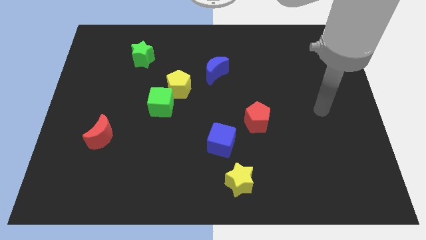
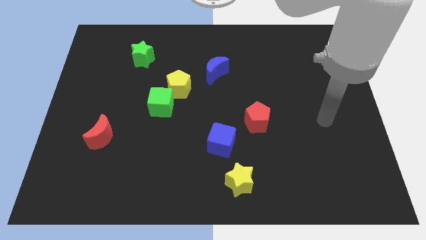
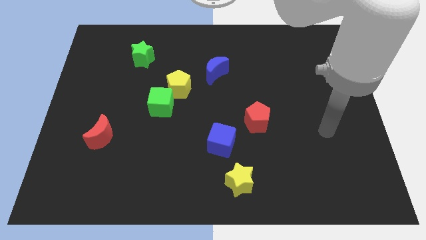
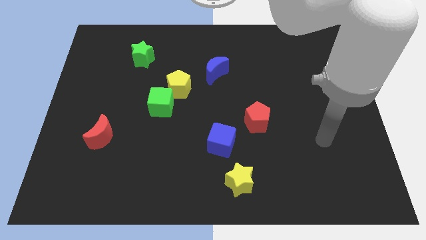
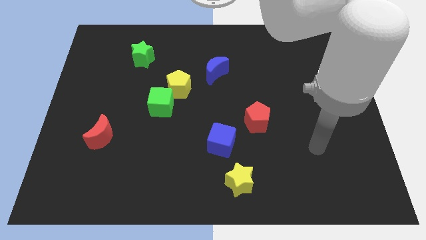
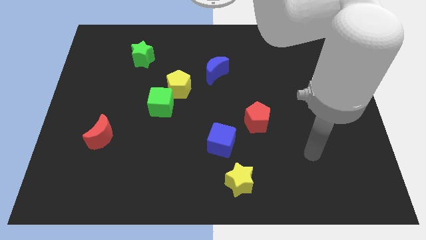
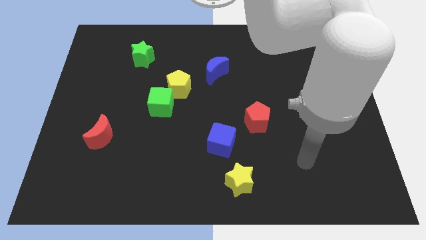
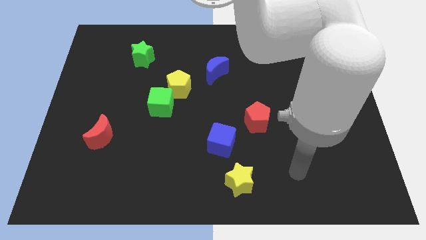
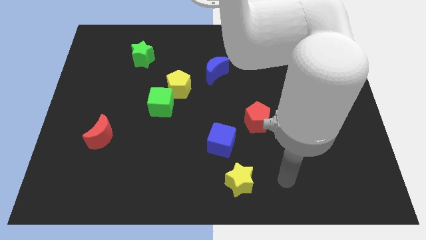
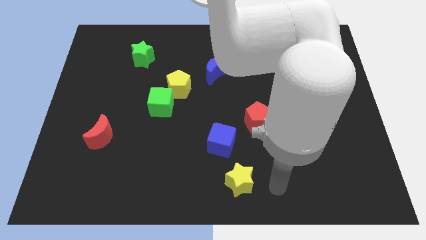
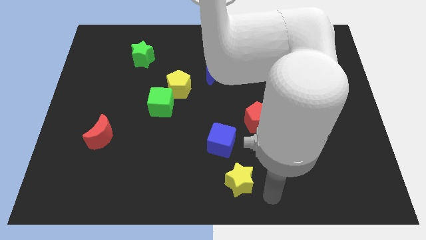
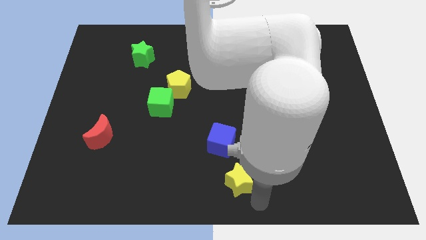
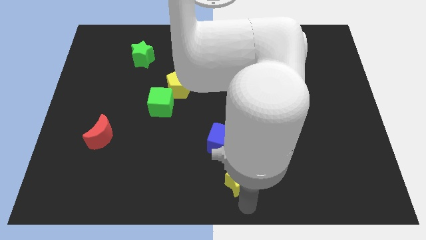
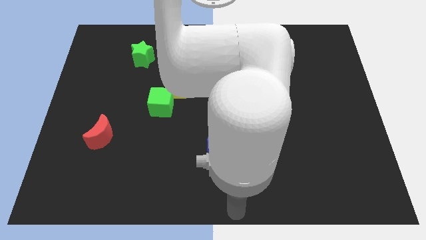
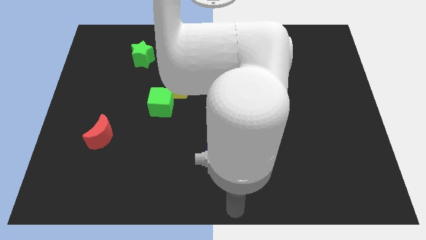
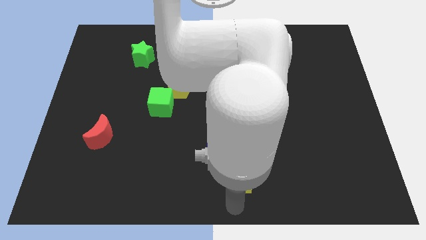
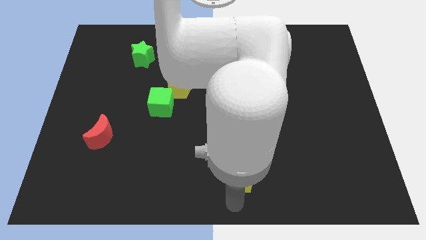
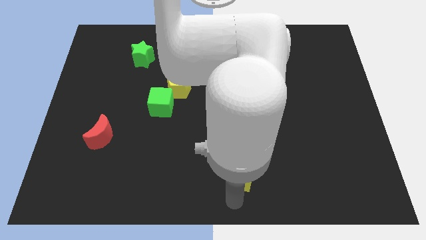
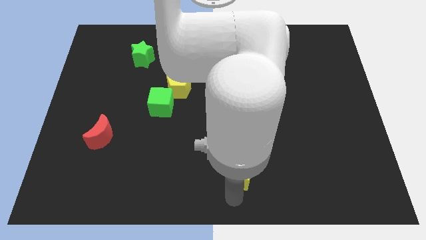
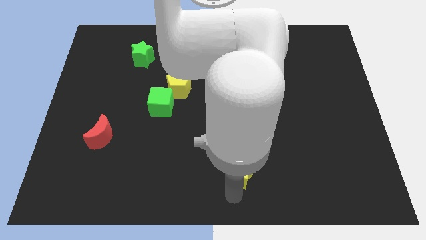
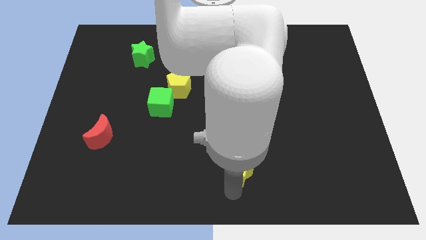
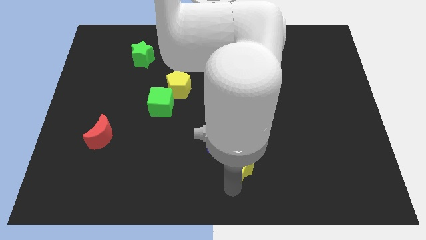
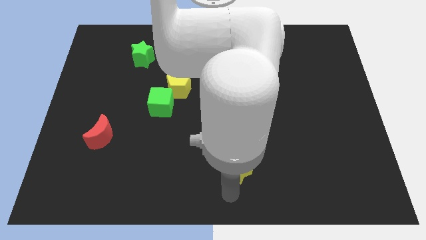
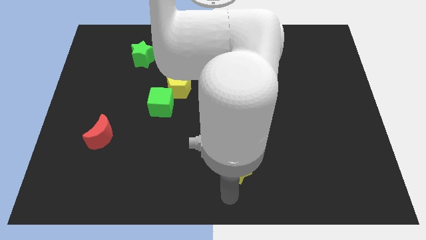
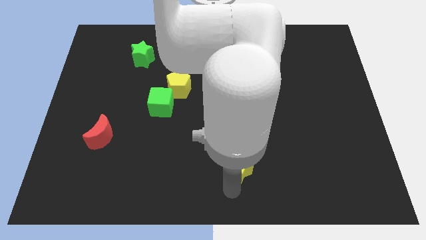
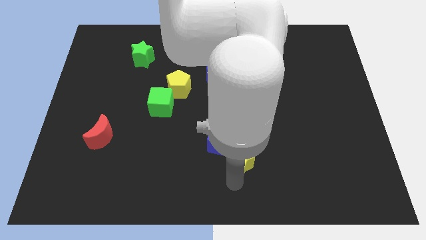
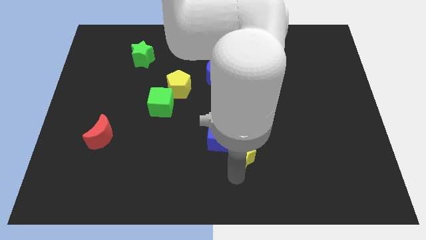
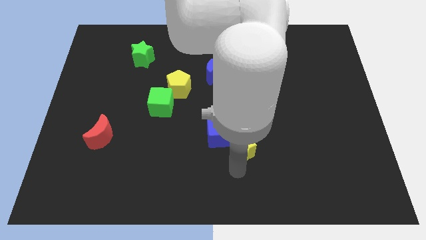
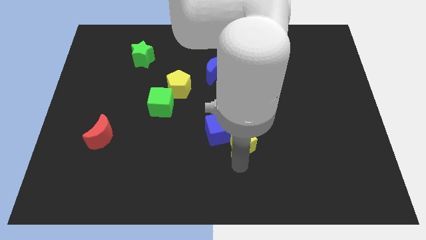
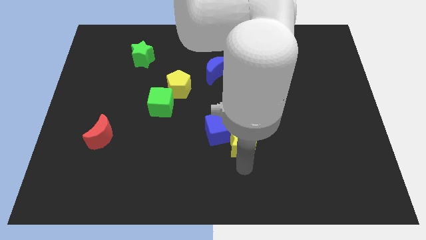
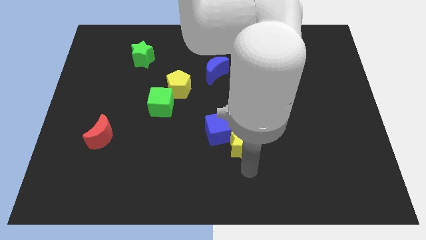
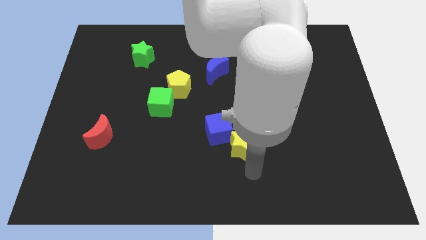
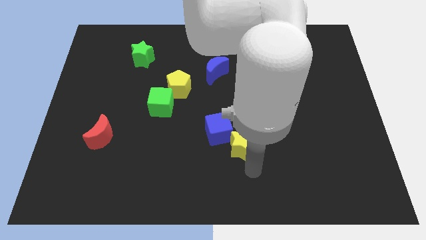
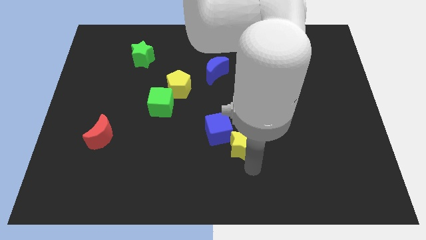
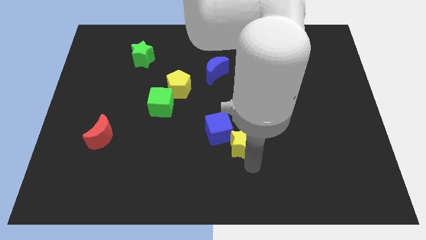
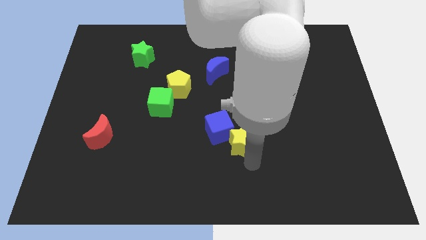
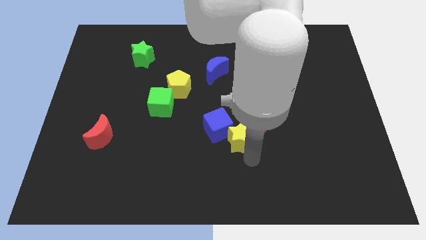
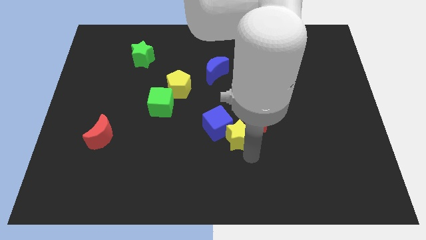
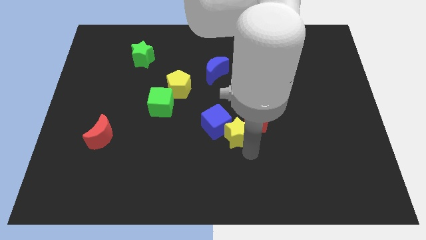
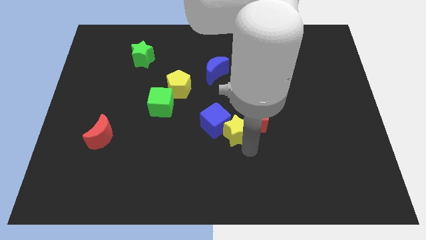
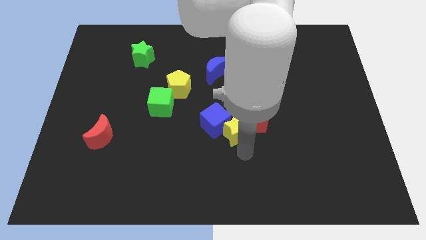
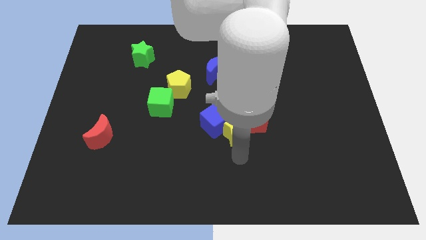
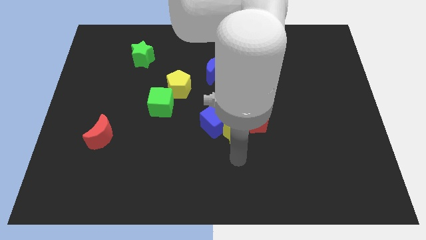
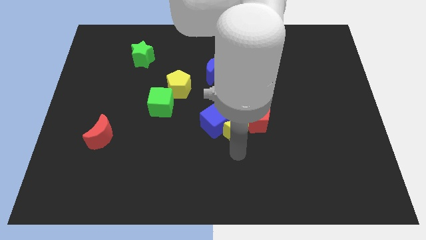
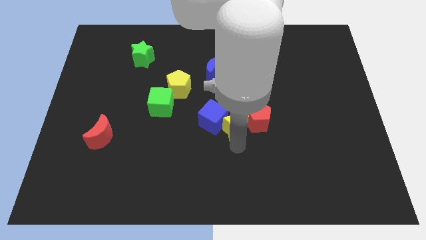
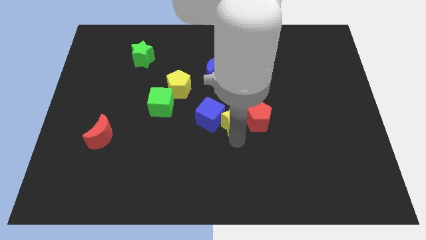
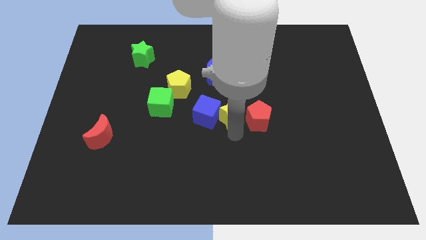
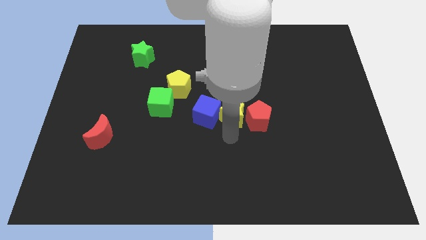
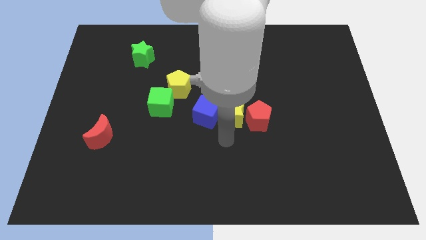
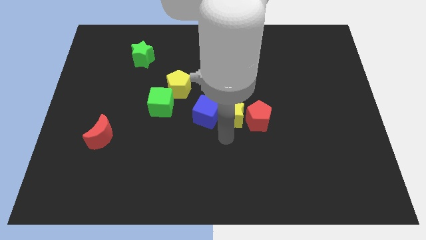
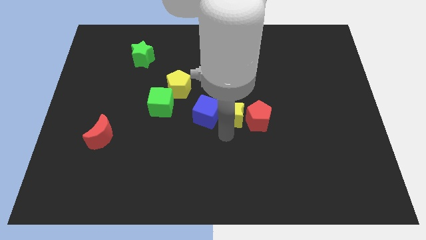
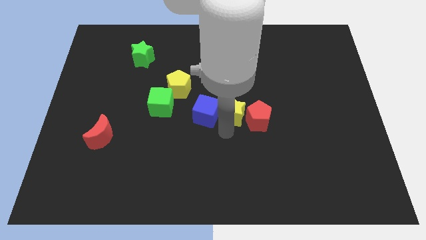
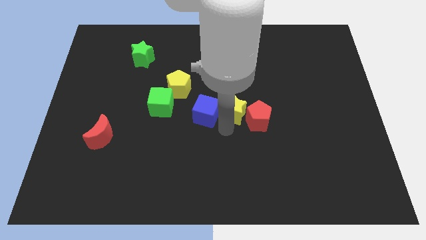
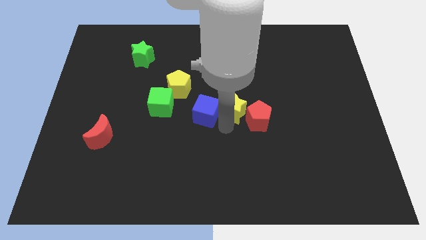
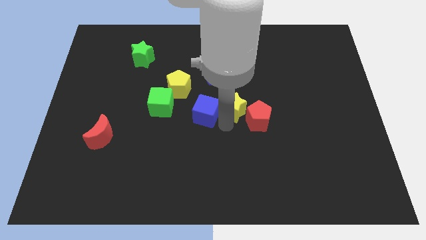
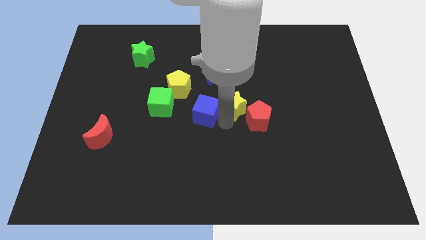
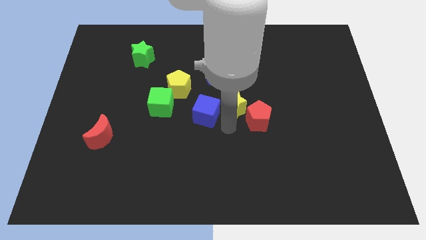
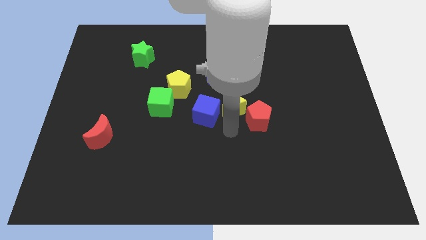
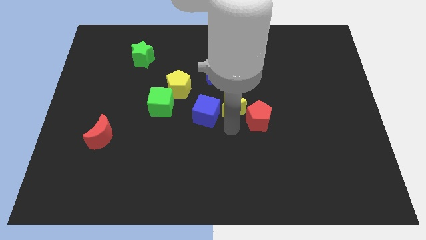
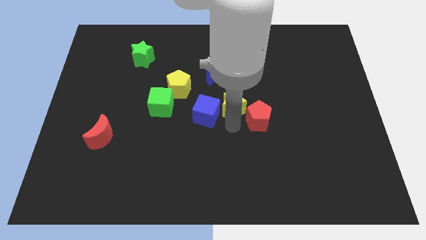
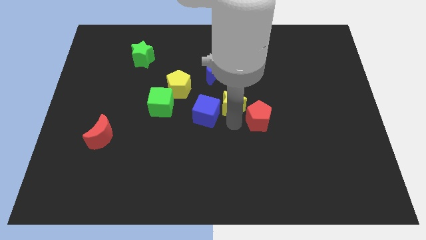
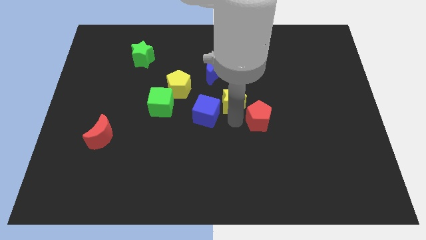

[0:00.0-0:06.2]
move the yellow star diagonally down and to the right of the blue moon

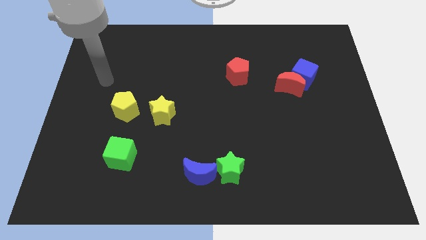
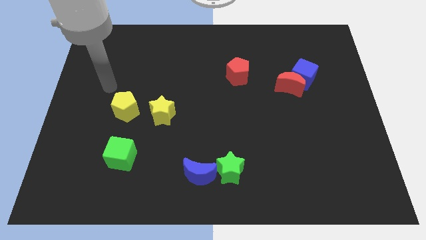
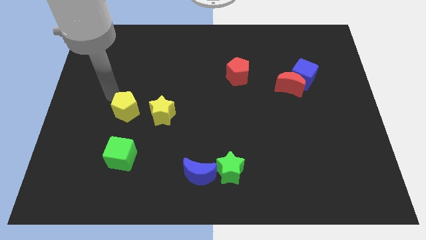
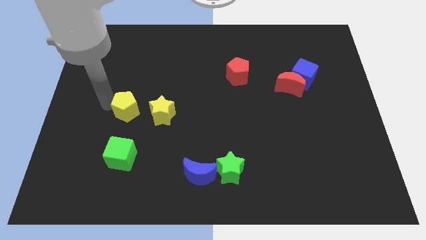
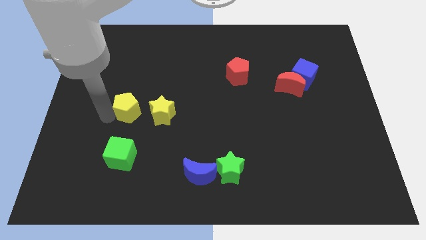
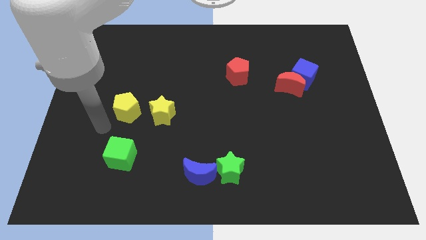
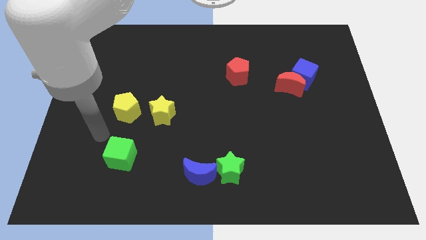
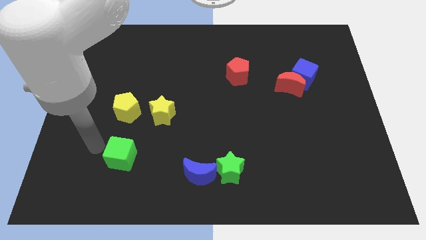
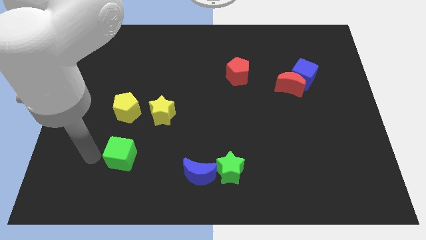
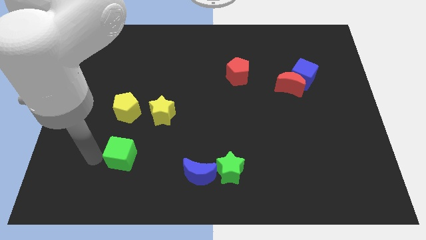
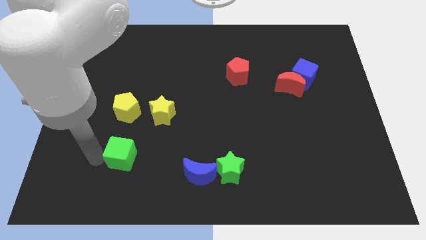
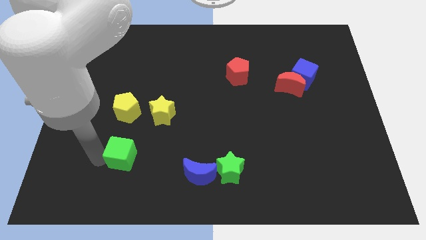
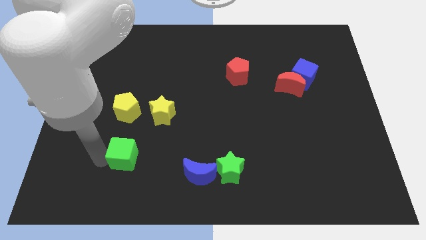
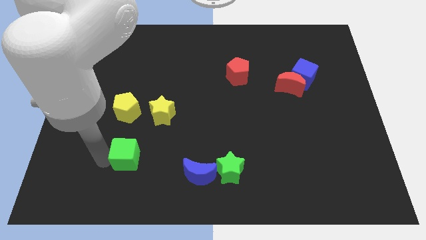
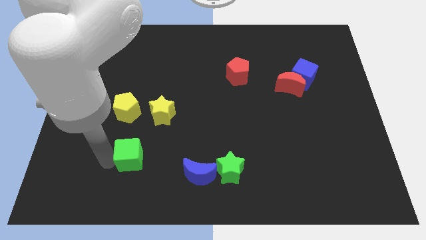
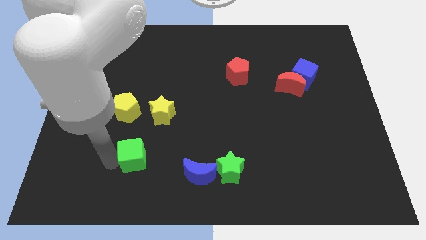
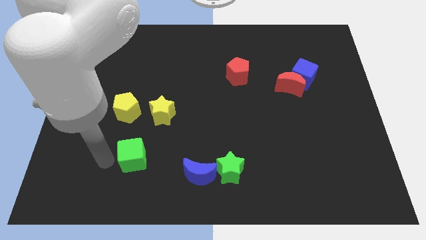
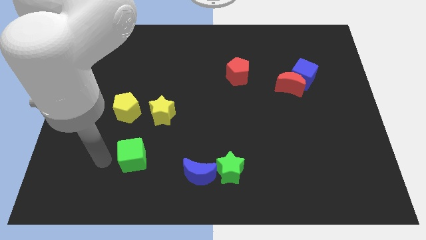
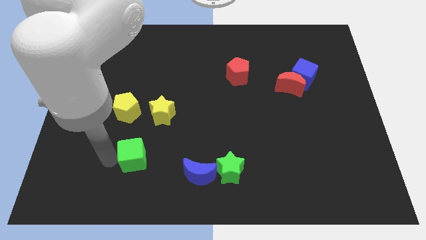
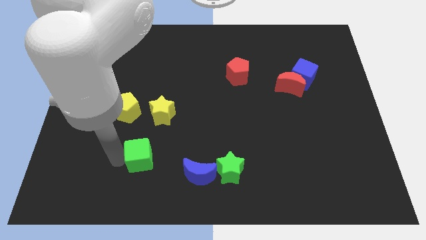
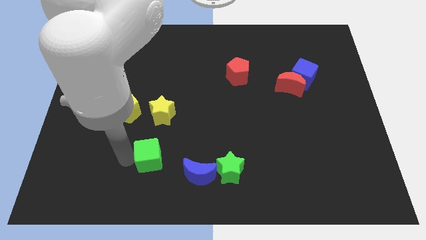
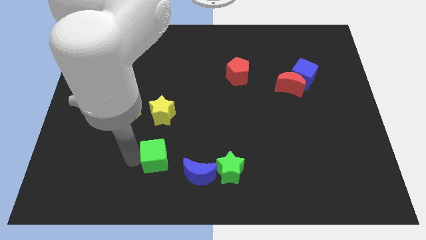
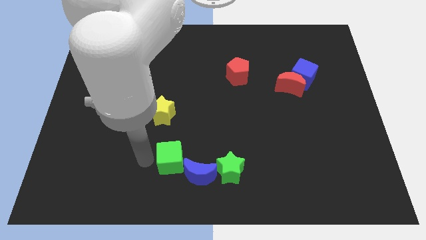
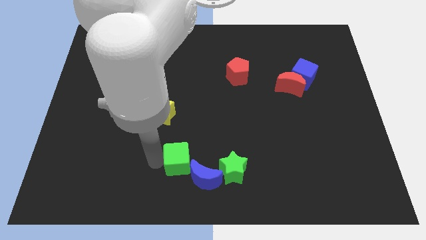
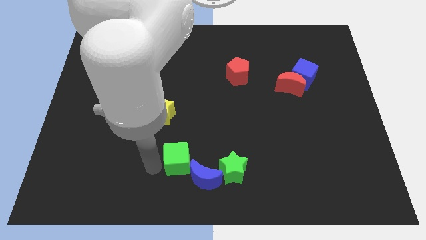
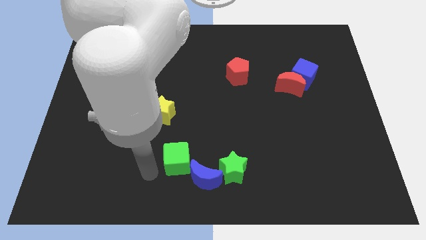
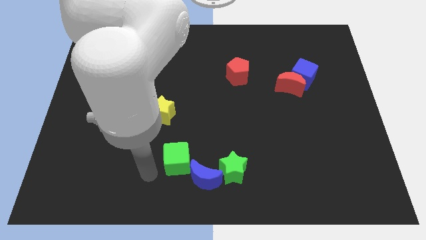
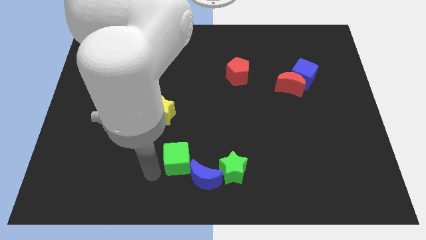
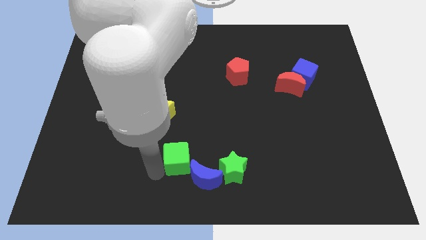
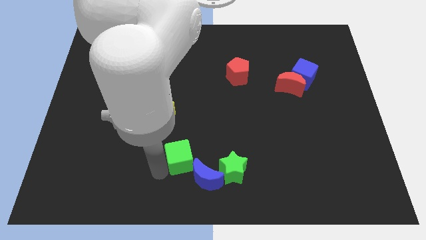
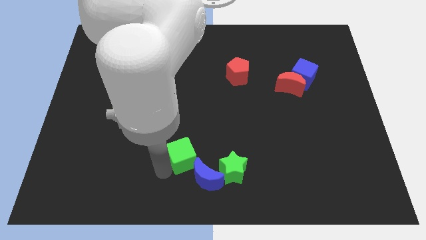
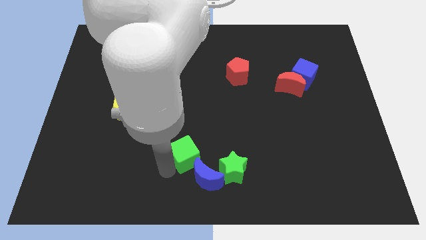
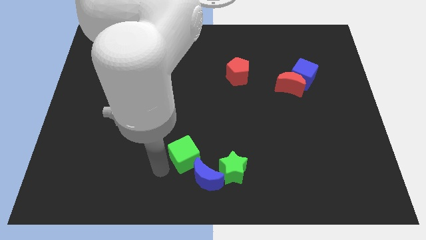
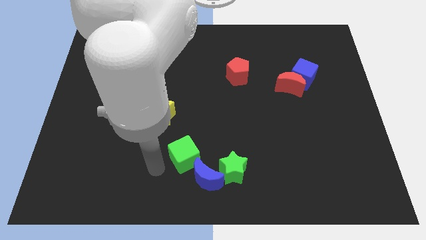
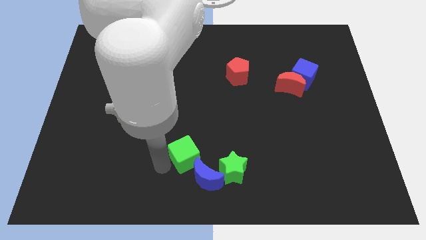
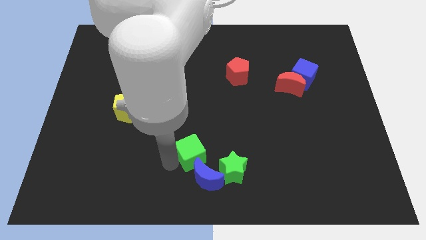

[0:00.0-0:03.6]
push the green cube to the top left of the green star
